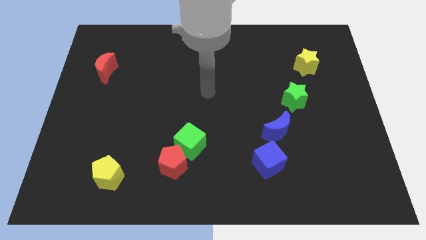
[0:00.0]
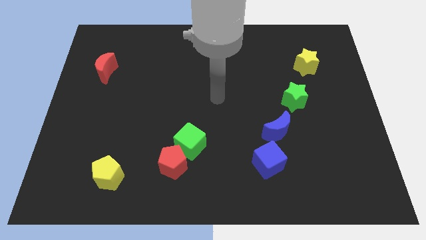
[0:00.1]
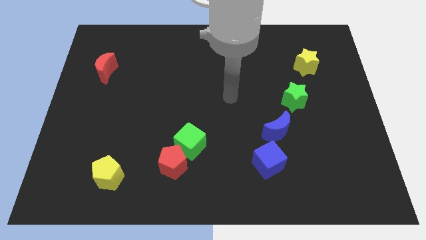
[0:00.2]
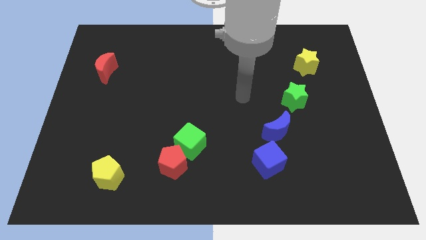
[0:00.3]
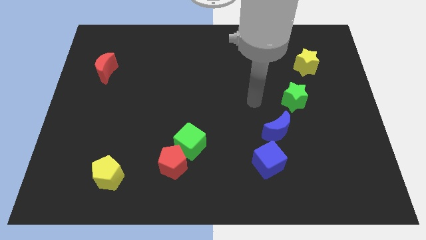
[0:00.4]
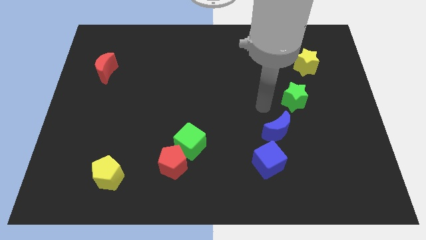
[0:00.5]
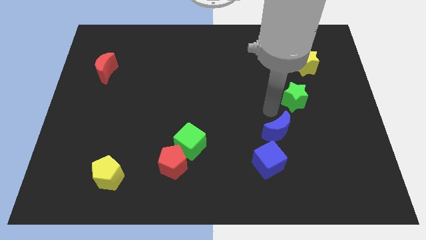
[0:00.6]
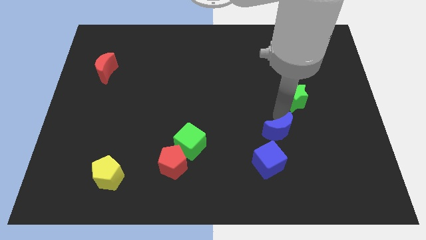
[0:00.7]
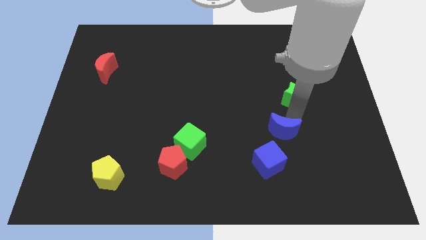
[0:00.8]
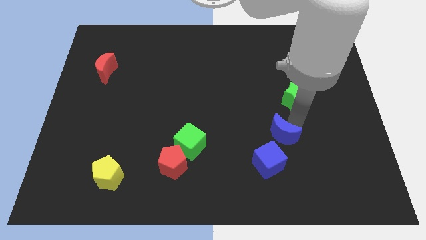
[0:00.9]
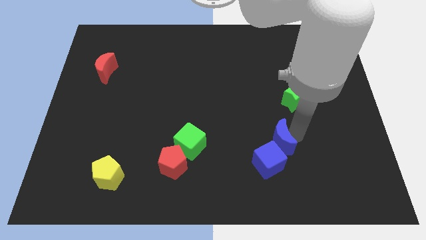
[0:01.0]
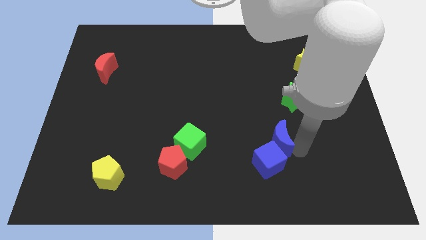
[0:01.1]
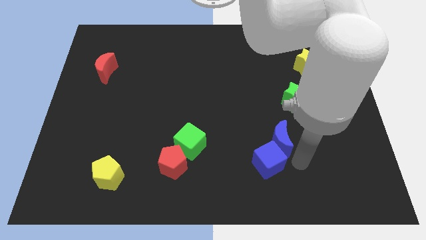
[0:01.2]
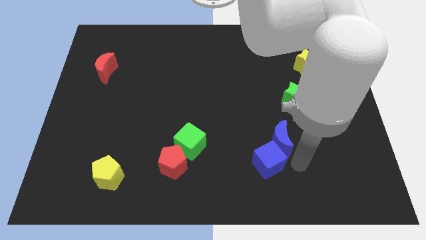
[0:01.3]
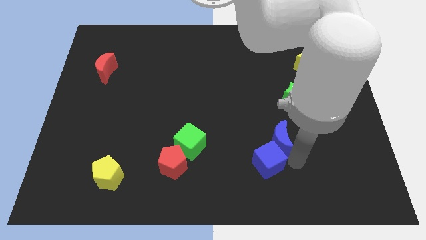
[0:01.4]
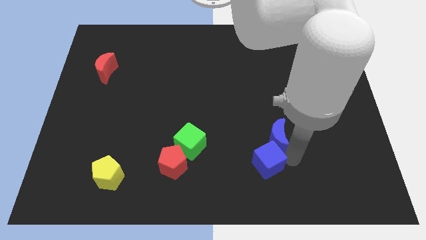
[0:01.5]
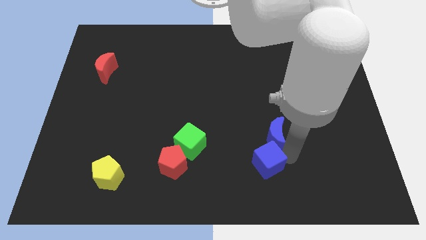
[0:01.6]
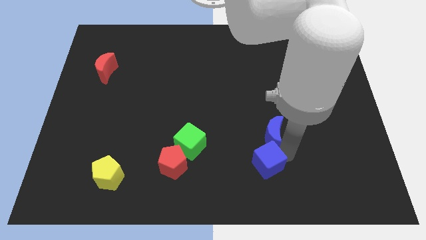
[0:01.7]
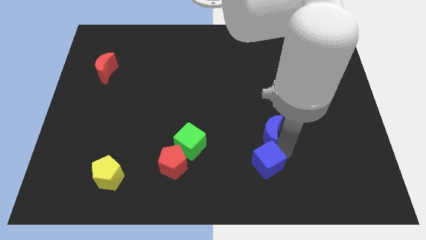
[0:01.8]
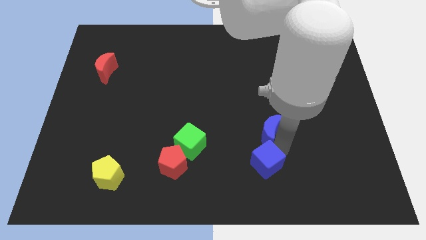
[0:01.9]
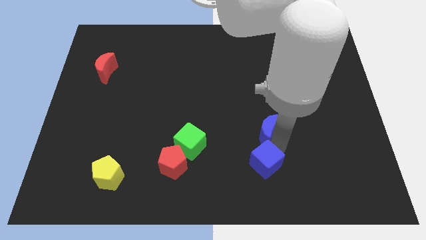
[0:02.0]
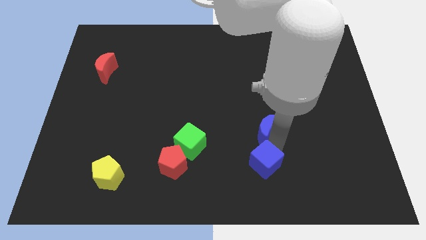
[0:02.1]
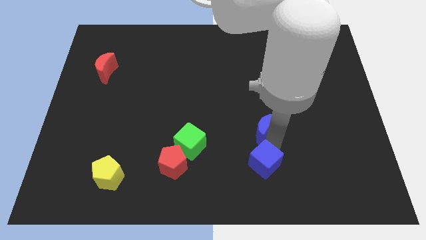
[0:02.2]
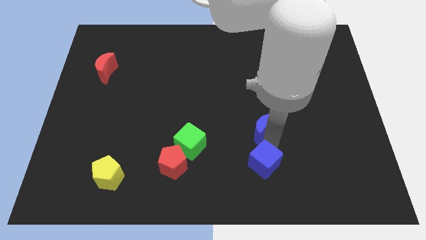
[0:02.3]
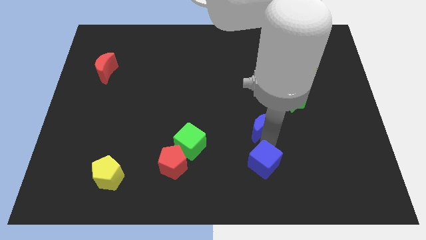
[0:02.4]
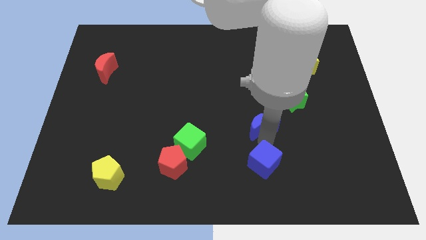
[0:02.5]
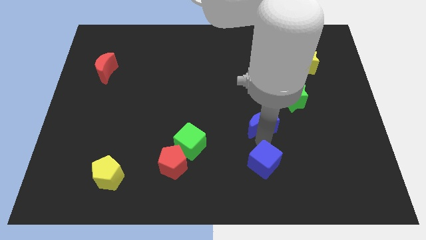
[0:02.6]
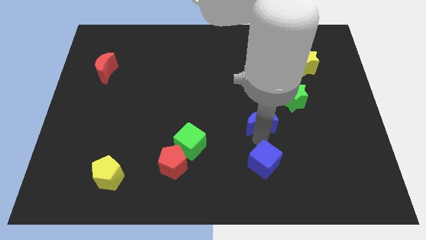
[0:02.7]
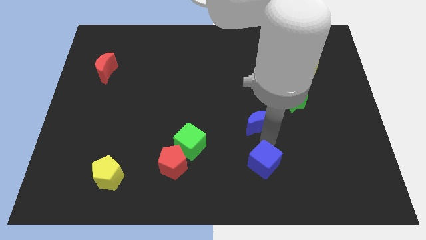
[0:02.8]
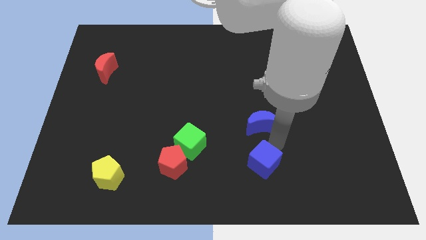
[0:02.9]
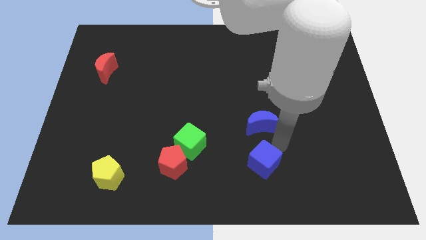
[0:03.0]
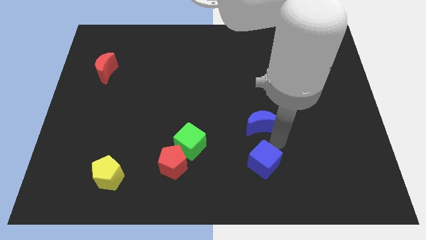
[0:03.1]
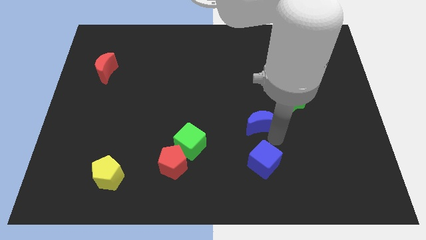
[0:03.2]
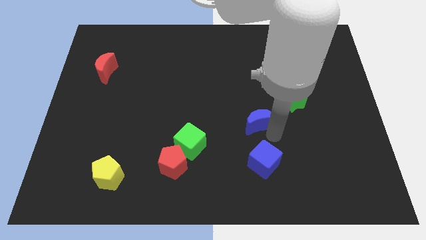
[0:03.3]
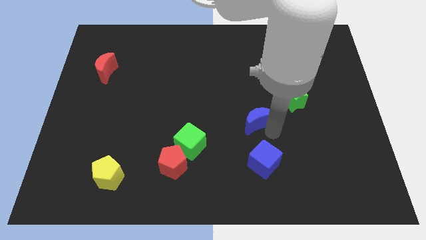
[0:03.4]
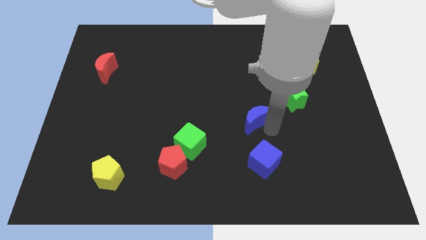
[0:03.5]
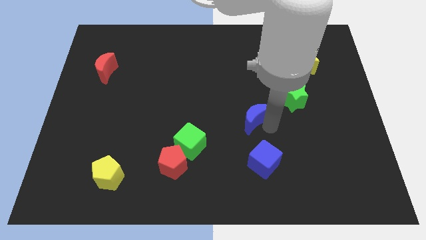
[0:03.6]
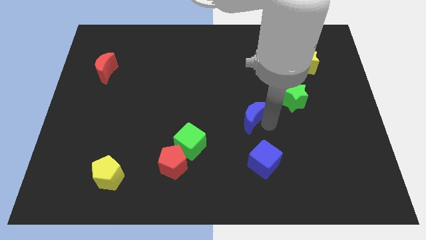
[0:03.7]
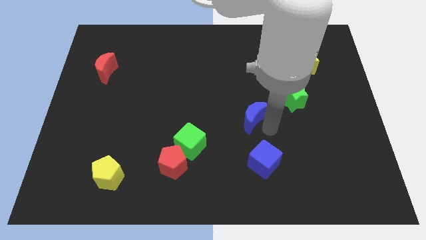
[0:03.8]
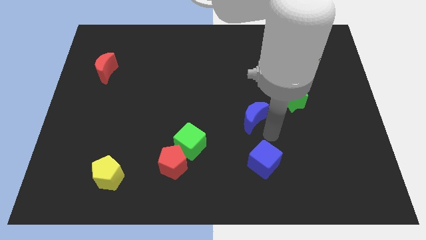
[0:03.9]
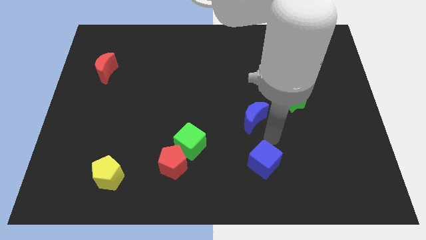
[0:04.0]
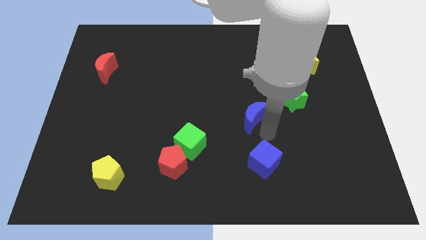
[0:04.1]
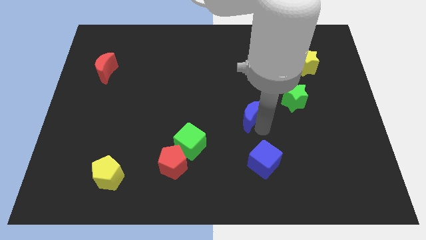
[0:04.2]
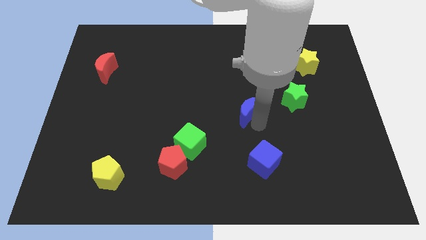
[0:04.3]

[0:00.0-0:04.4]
push the blue moon upwards and left somewhat

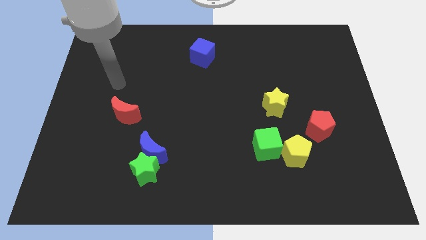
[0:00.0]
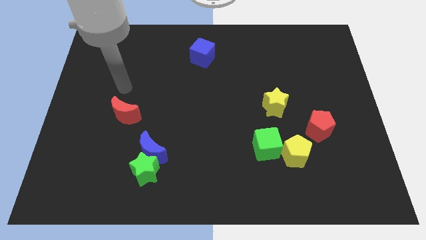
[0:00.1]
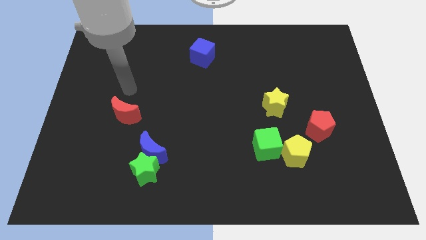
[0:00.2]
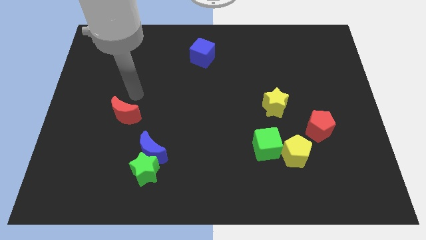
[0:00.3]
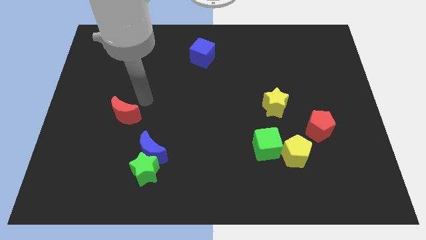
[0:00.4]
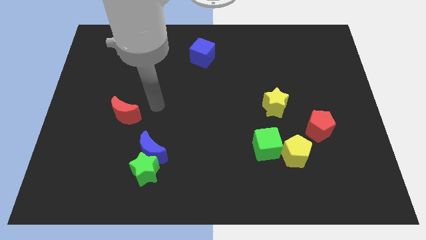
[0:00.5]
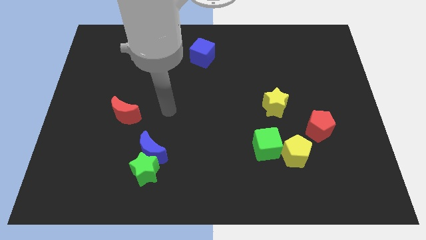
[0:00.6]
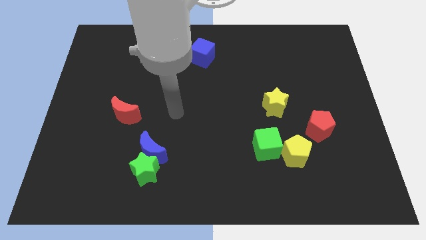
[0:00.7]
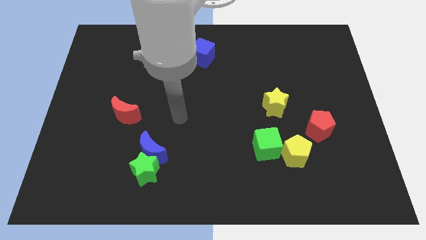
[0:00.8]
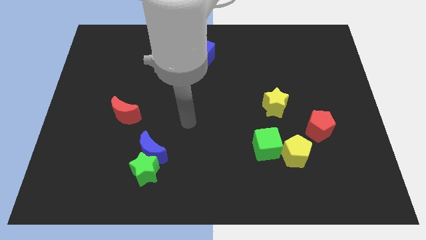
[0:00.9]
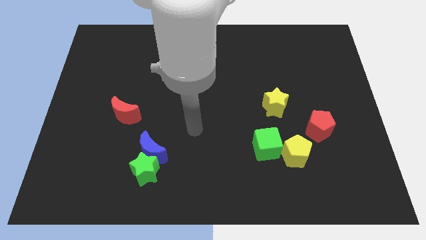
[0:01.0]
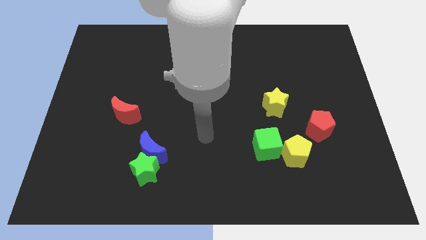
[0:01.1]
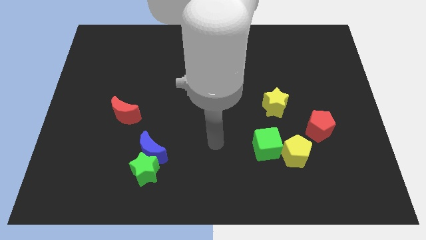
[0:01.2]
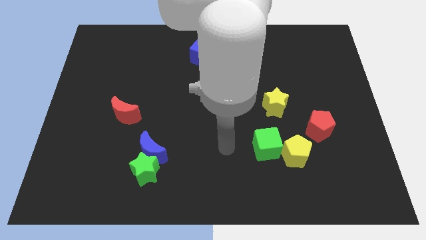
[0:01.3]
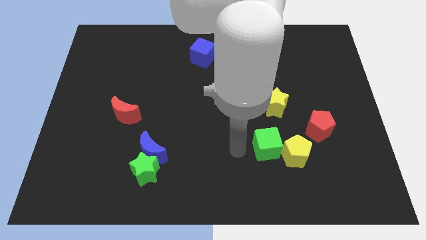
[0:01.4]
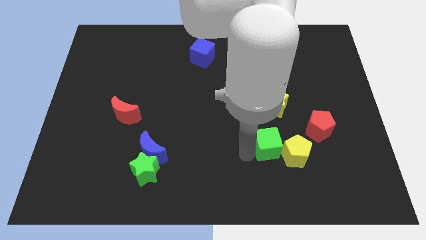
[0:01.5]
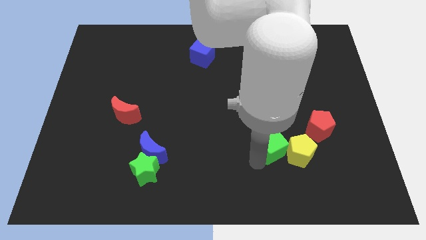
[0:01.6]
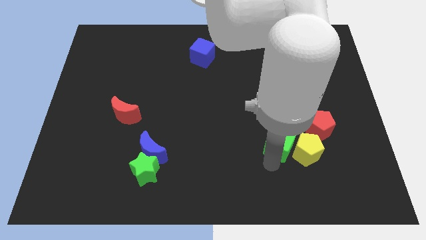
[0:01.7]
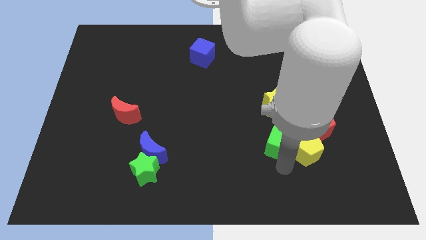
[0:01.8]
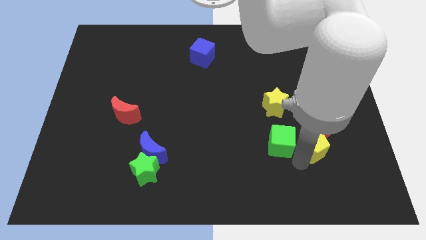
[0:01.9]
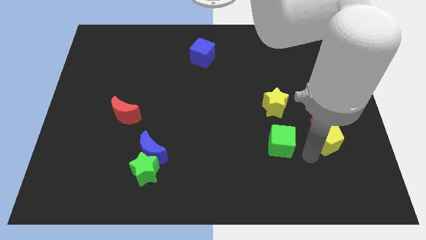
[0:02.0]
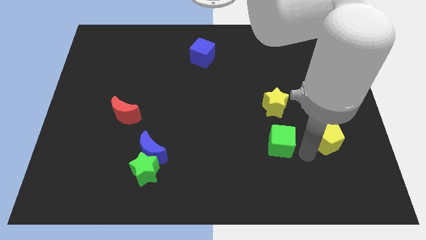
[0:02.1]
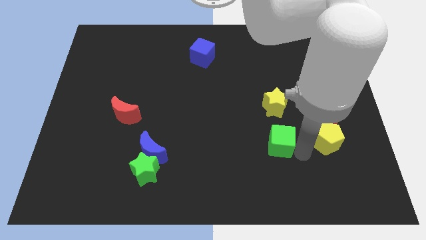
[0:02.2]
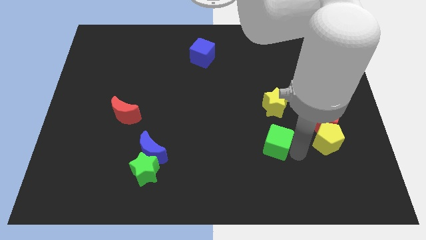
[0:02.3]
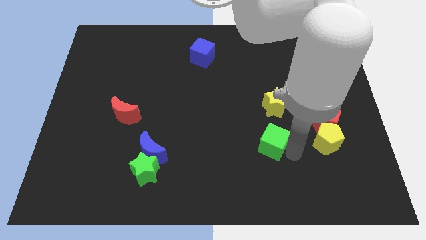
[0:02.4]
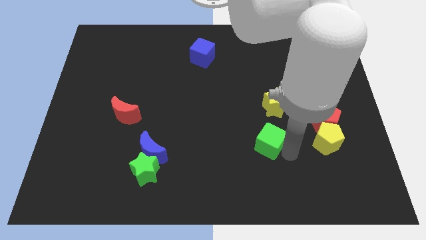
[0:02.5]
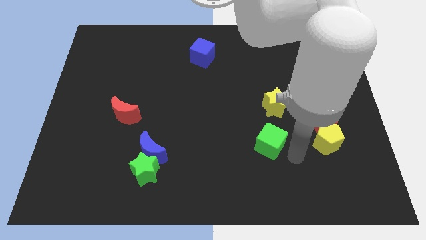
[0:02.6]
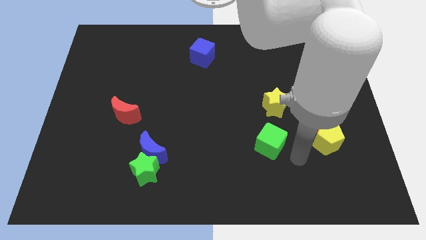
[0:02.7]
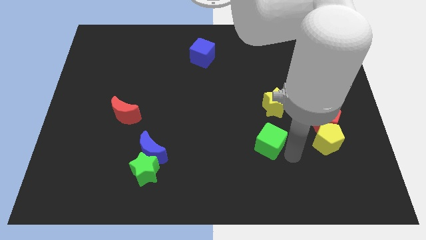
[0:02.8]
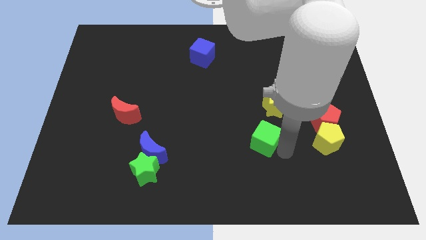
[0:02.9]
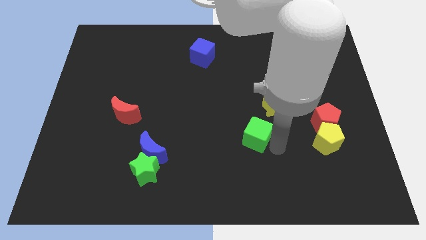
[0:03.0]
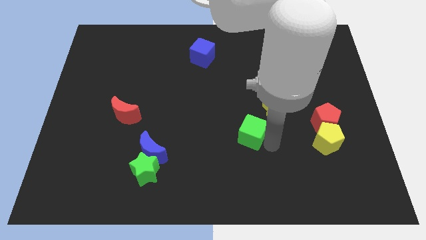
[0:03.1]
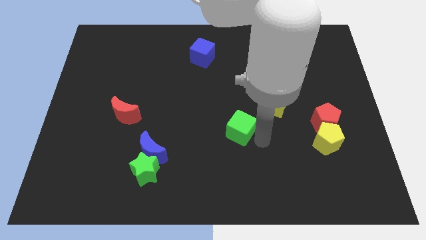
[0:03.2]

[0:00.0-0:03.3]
push the green cube somewhat diagonally upwards and to the left

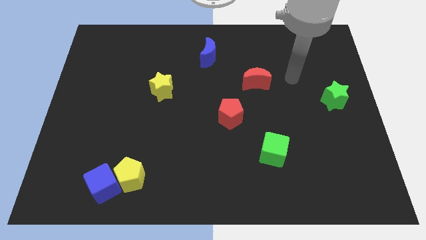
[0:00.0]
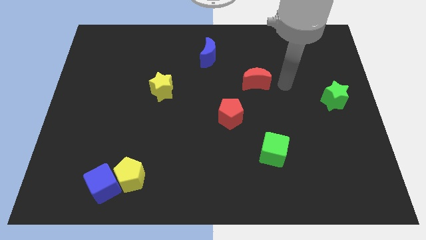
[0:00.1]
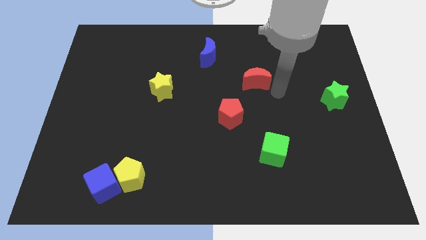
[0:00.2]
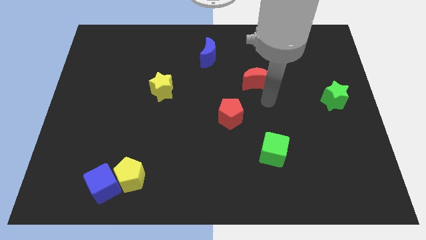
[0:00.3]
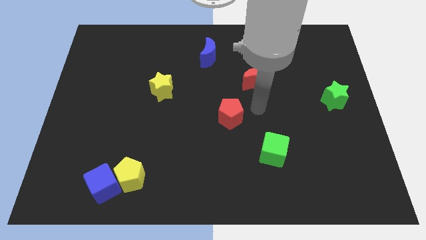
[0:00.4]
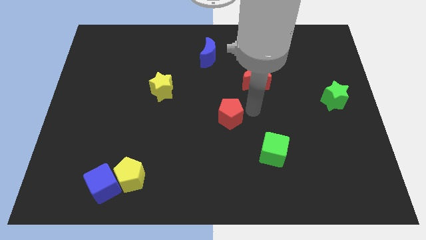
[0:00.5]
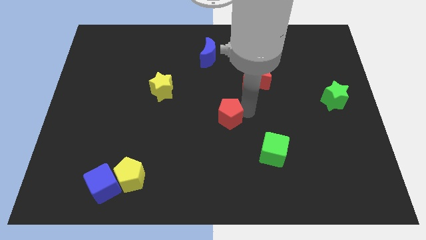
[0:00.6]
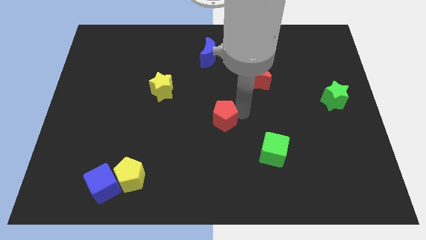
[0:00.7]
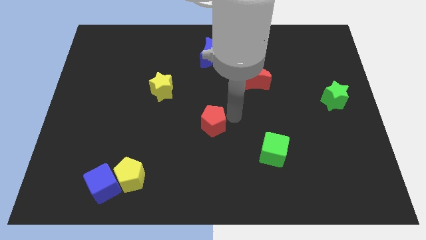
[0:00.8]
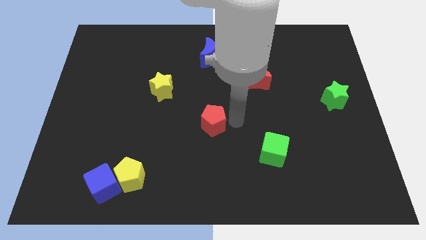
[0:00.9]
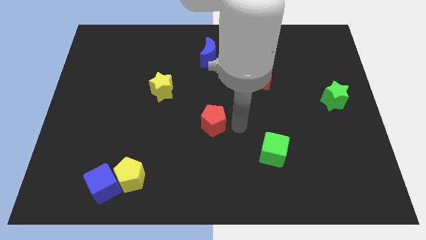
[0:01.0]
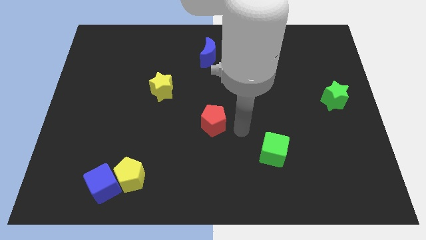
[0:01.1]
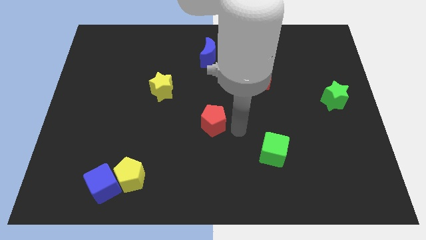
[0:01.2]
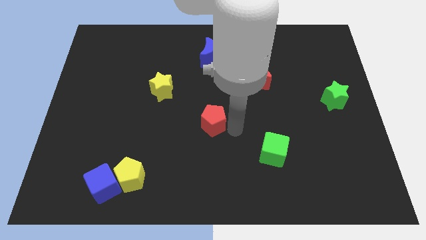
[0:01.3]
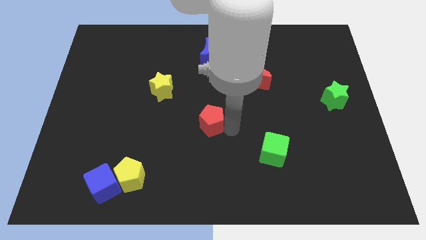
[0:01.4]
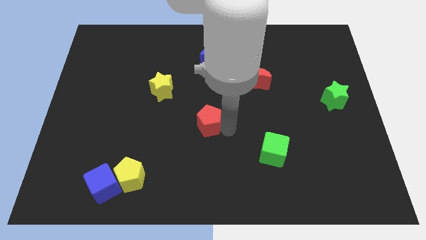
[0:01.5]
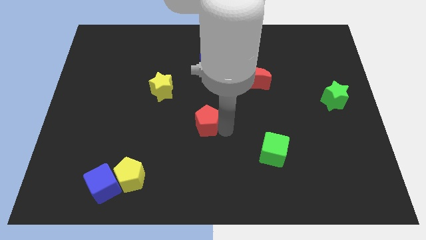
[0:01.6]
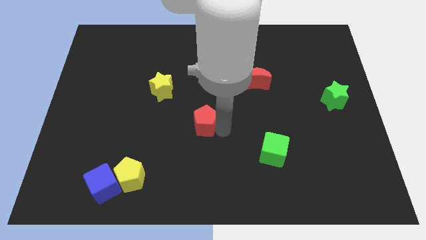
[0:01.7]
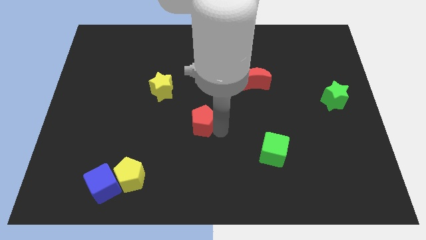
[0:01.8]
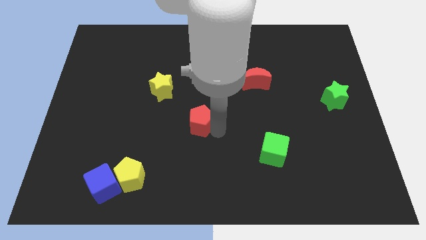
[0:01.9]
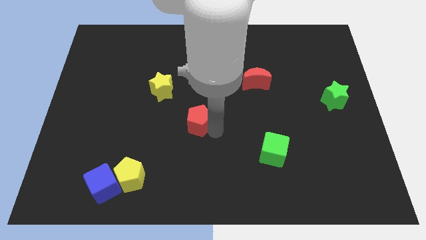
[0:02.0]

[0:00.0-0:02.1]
slide the red pentagon slightly left
